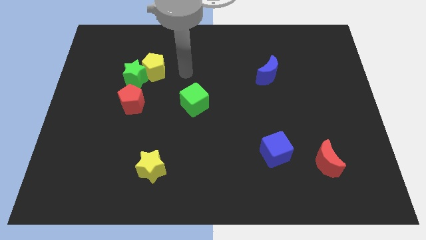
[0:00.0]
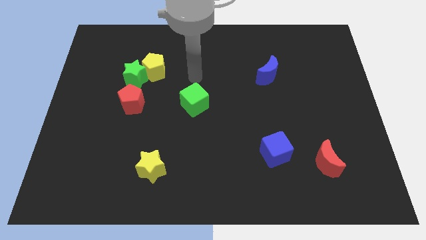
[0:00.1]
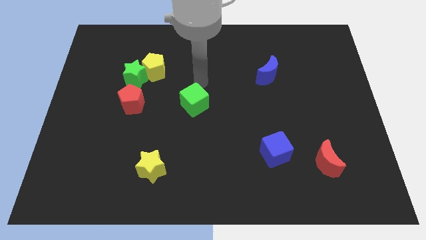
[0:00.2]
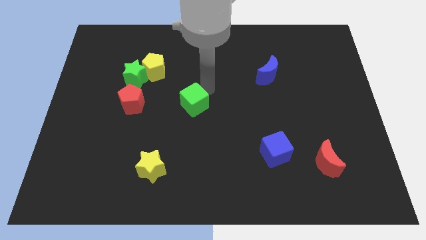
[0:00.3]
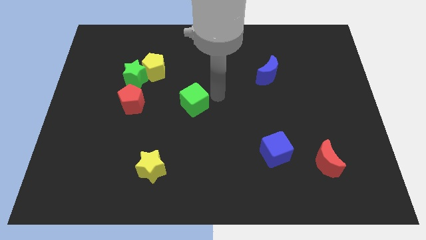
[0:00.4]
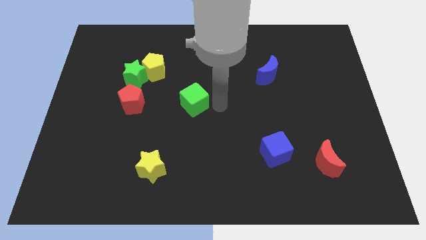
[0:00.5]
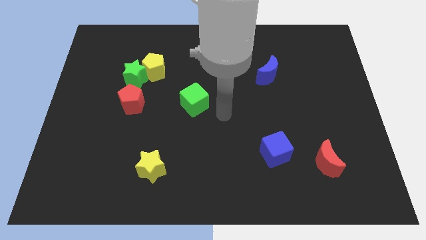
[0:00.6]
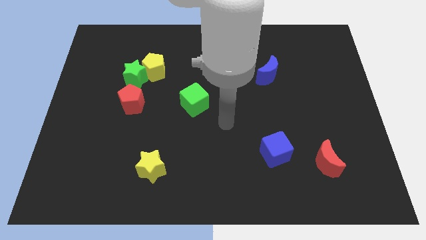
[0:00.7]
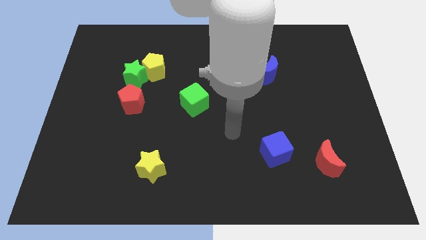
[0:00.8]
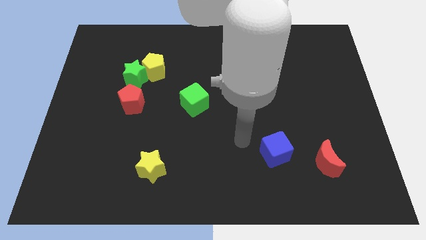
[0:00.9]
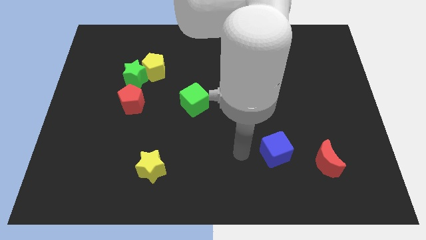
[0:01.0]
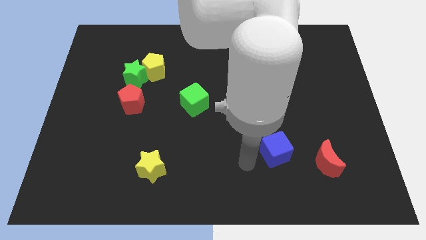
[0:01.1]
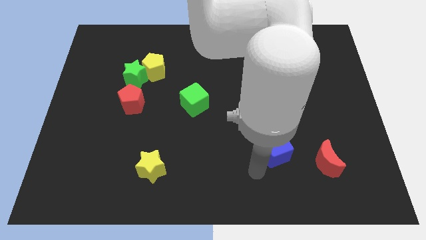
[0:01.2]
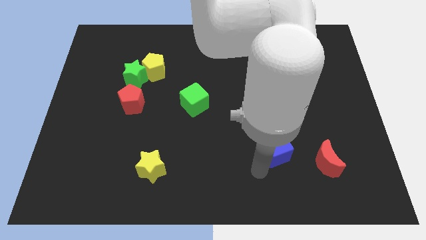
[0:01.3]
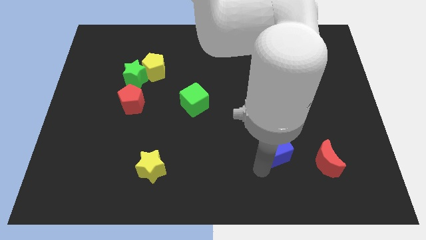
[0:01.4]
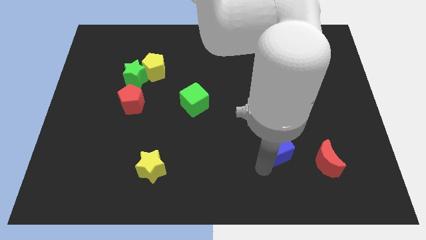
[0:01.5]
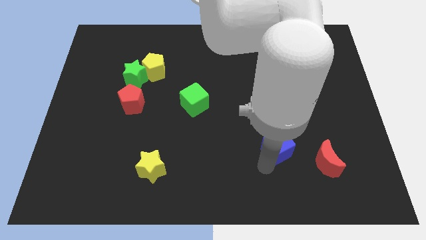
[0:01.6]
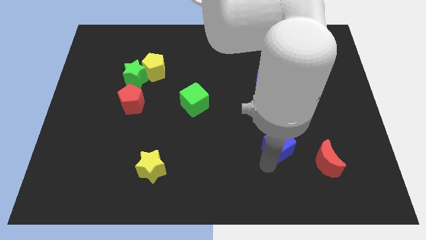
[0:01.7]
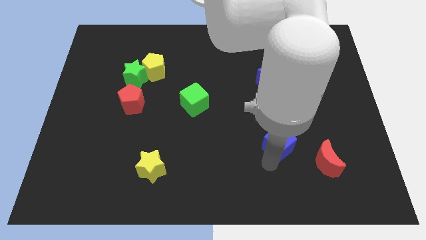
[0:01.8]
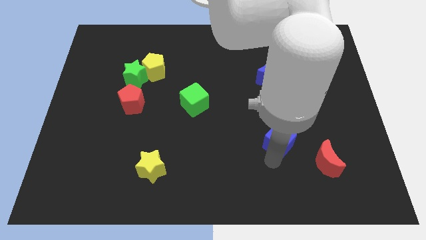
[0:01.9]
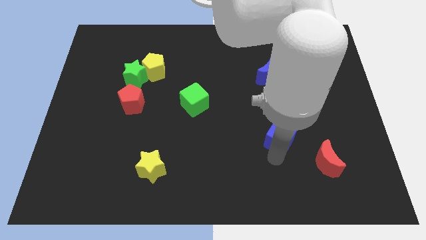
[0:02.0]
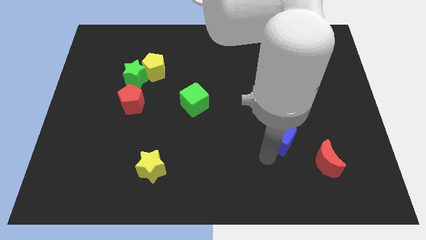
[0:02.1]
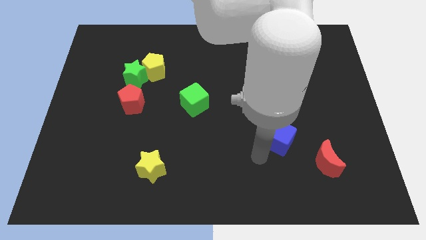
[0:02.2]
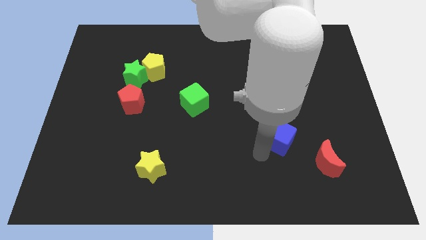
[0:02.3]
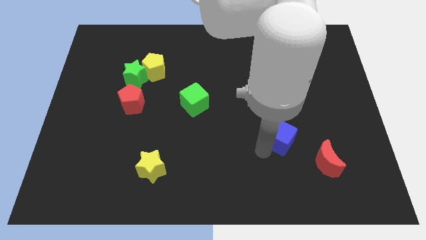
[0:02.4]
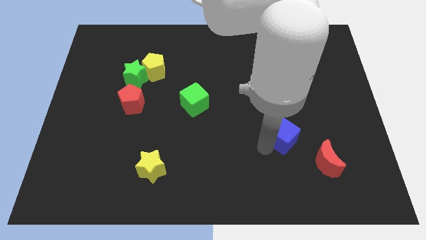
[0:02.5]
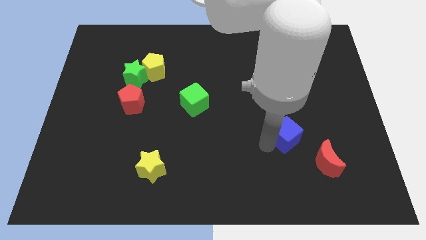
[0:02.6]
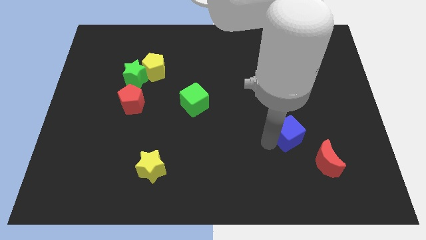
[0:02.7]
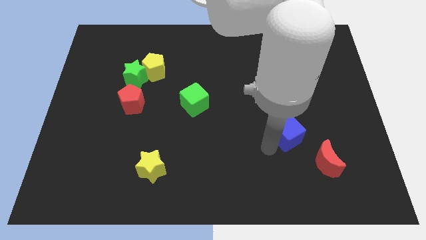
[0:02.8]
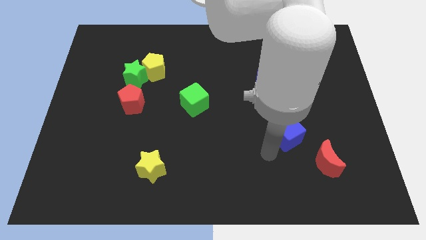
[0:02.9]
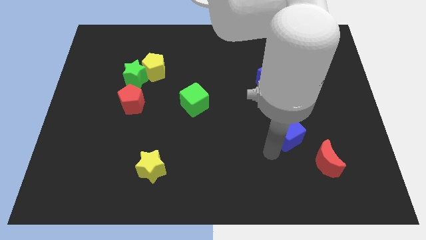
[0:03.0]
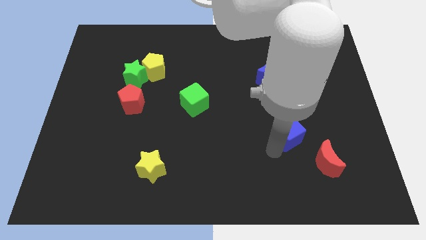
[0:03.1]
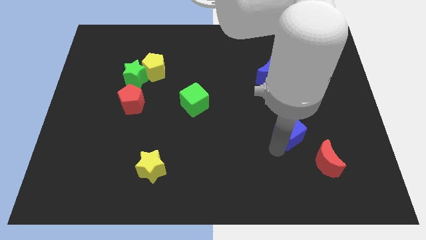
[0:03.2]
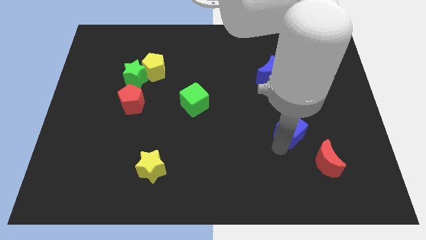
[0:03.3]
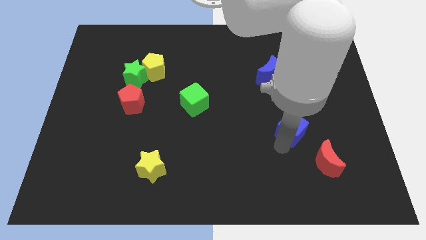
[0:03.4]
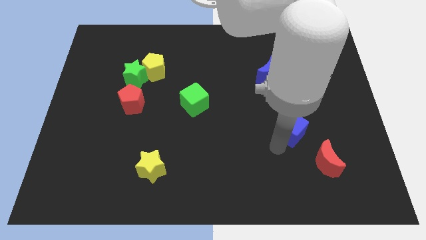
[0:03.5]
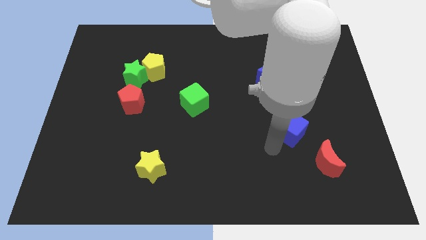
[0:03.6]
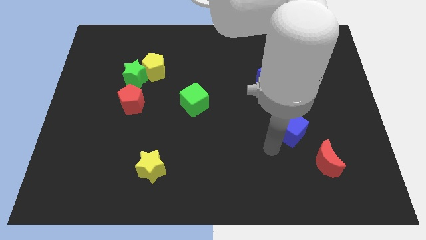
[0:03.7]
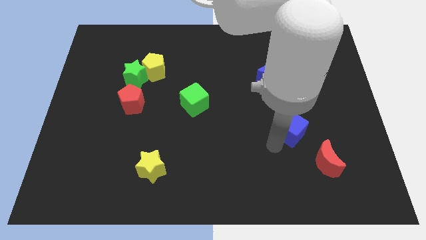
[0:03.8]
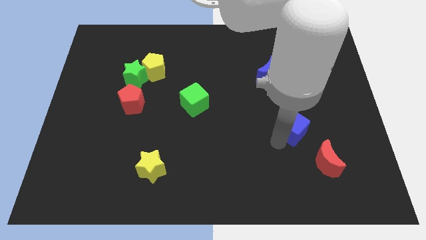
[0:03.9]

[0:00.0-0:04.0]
slightly push the blue cube upwards and to the right diagonally

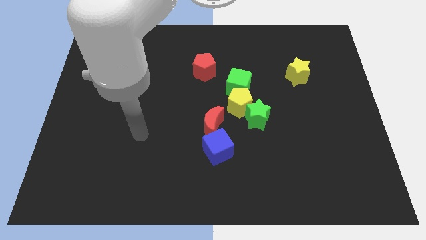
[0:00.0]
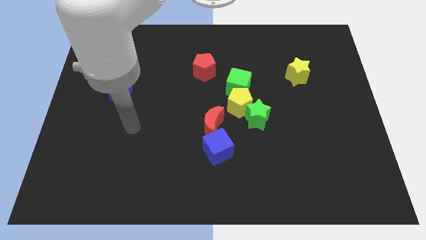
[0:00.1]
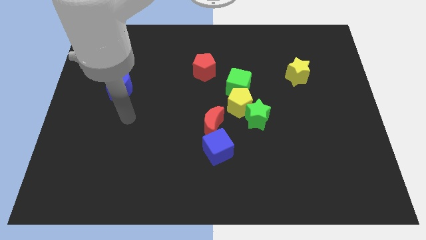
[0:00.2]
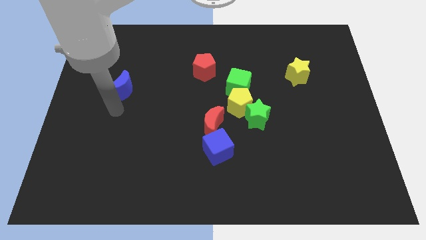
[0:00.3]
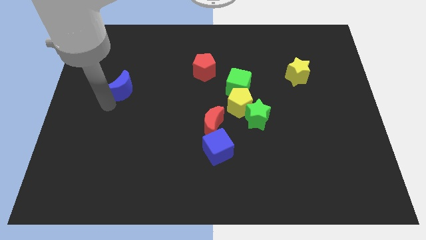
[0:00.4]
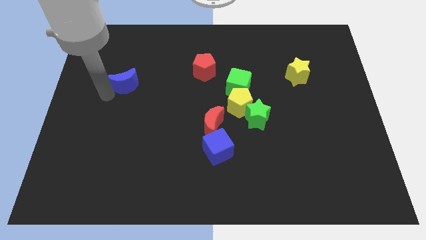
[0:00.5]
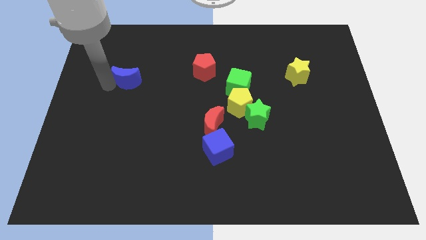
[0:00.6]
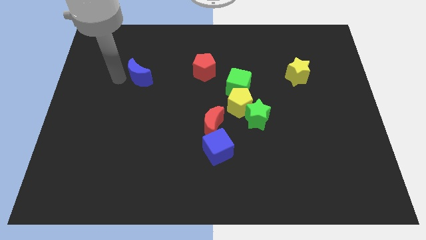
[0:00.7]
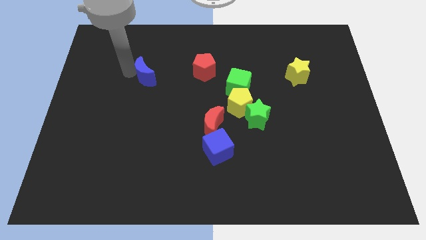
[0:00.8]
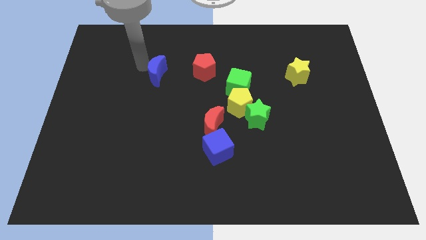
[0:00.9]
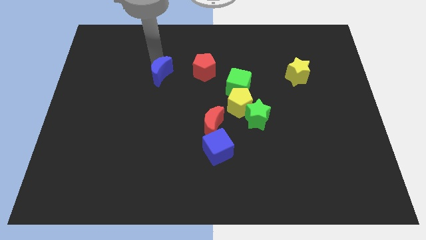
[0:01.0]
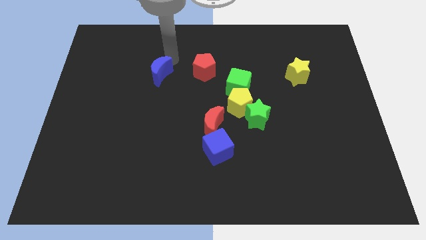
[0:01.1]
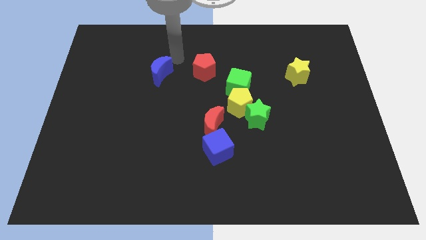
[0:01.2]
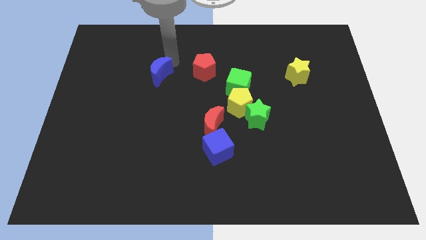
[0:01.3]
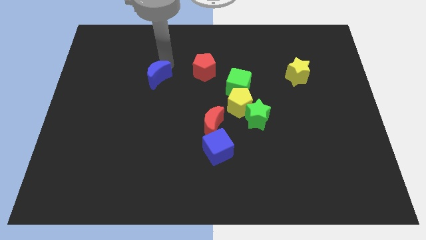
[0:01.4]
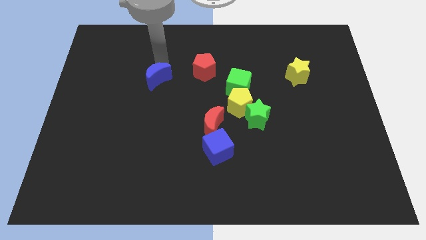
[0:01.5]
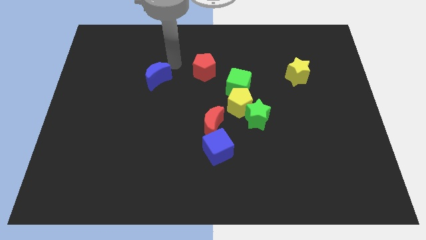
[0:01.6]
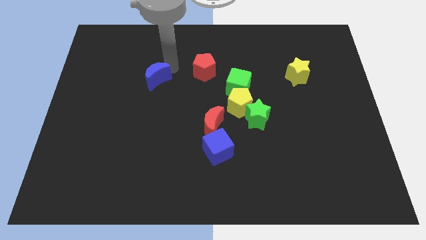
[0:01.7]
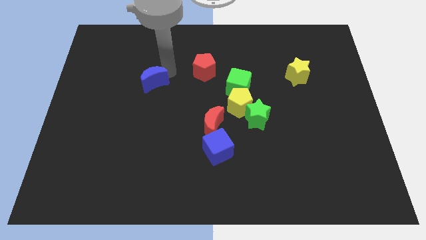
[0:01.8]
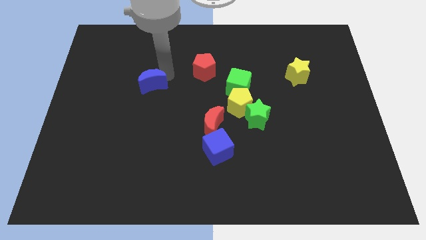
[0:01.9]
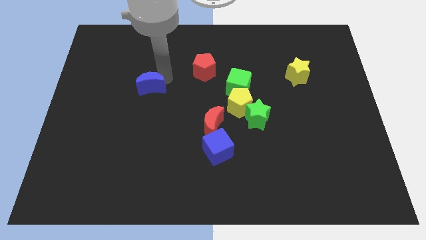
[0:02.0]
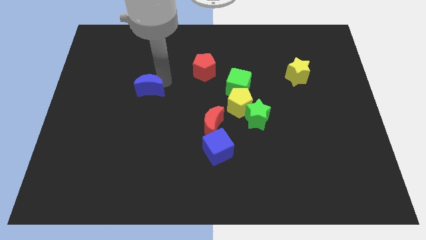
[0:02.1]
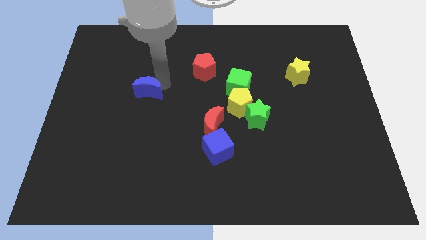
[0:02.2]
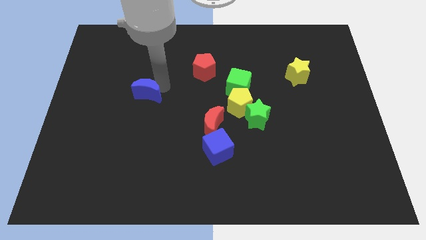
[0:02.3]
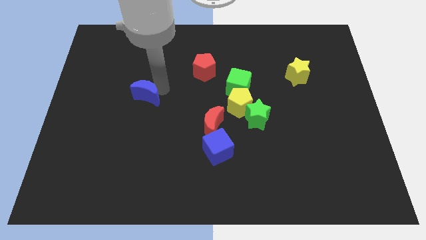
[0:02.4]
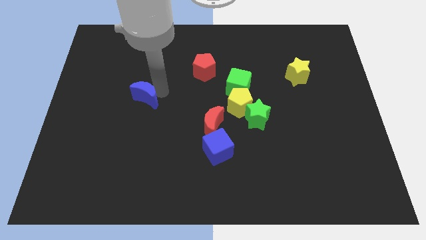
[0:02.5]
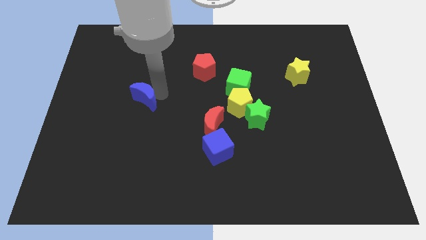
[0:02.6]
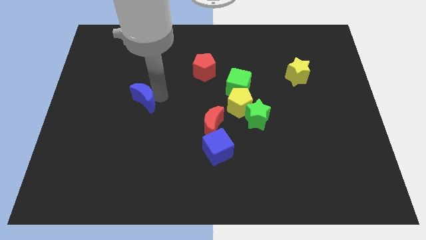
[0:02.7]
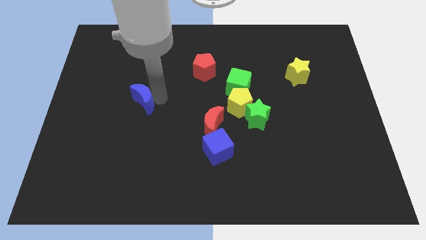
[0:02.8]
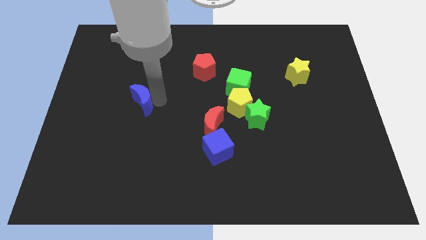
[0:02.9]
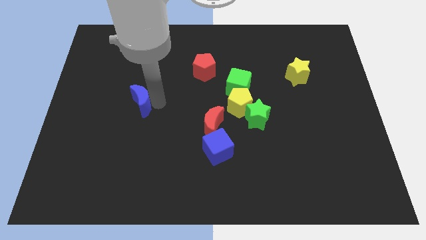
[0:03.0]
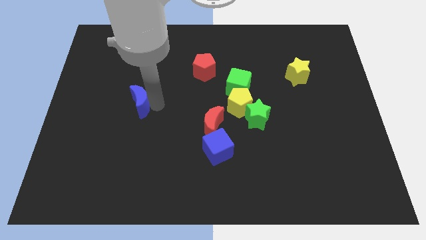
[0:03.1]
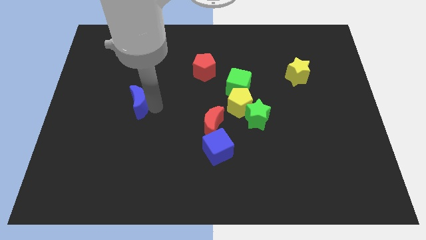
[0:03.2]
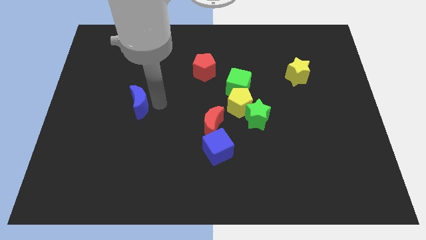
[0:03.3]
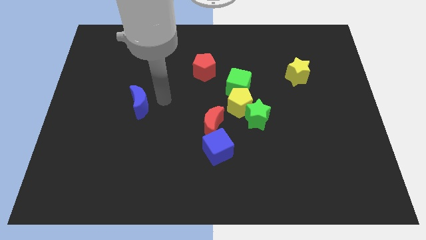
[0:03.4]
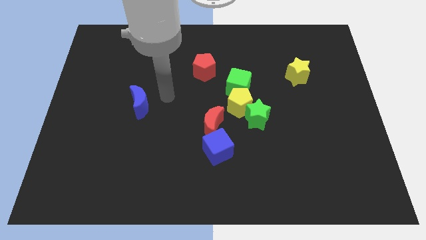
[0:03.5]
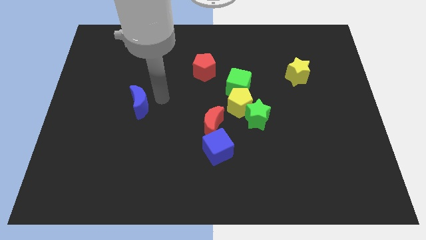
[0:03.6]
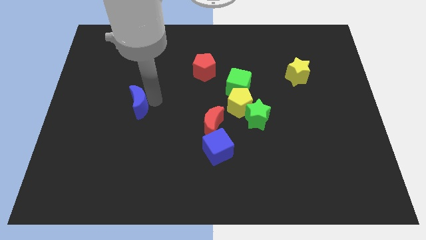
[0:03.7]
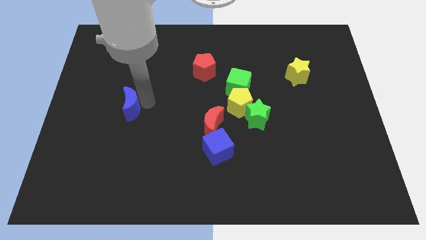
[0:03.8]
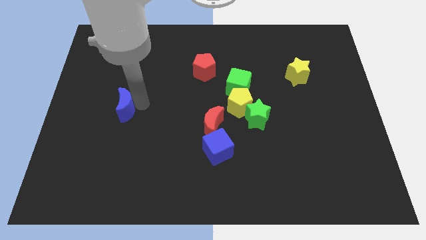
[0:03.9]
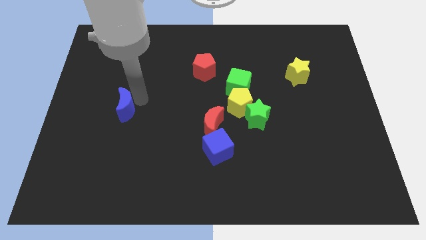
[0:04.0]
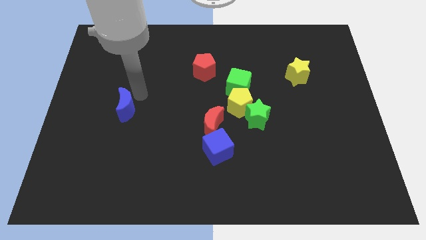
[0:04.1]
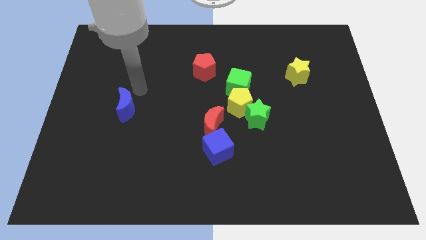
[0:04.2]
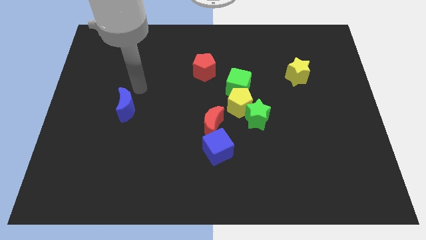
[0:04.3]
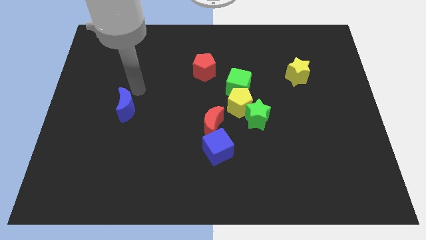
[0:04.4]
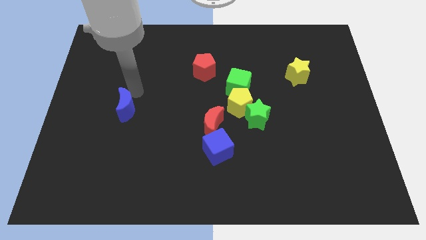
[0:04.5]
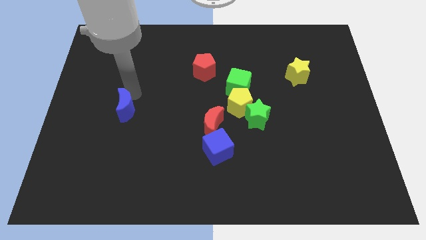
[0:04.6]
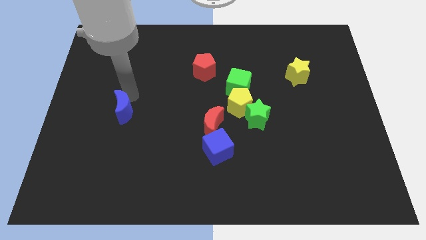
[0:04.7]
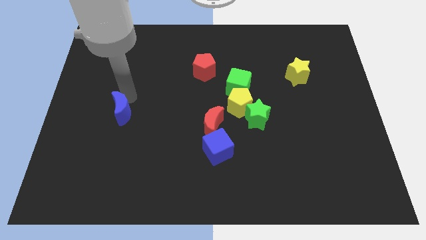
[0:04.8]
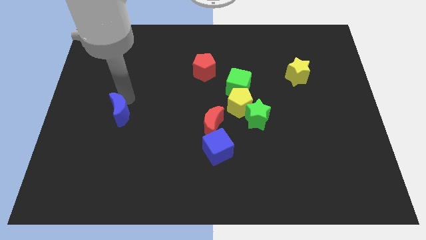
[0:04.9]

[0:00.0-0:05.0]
push the blue moon downwards a little
